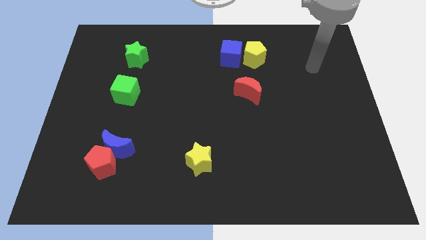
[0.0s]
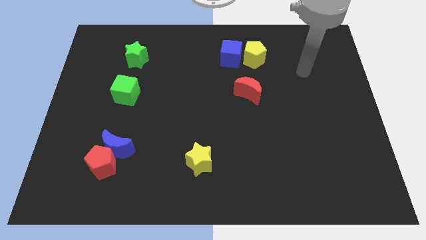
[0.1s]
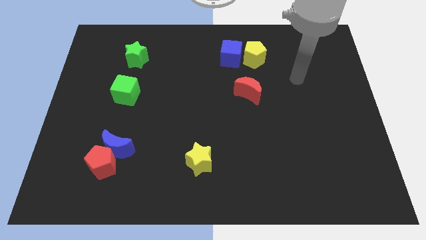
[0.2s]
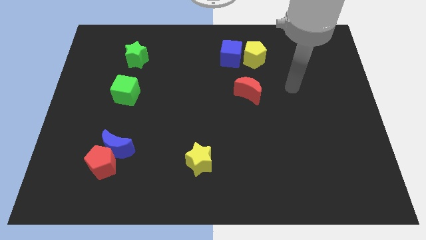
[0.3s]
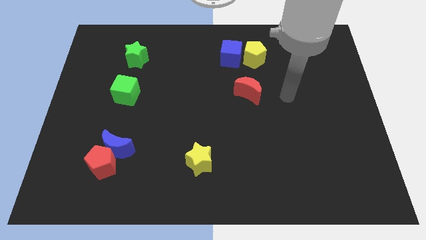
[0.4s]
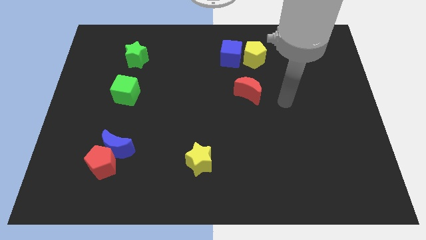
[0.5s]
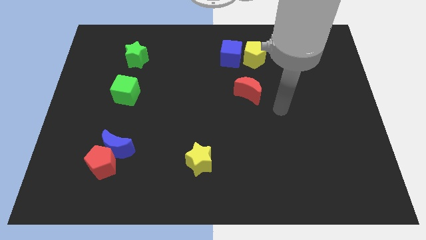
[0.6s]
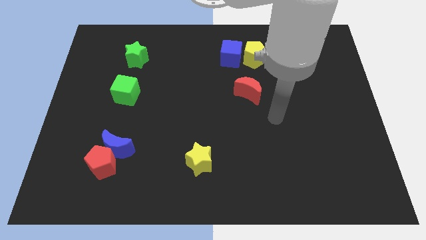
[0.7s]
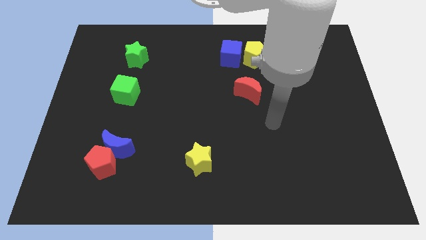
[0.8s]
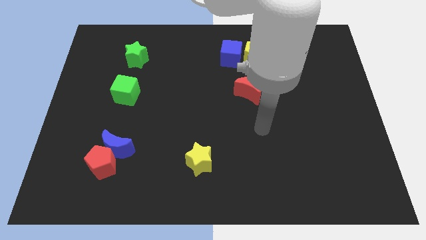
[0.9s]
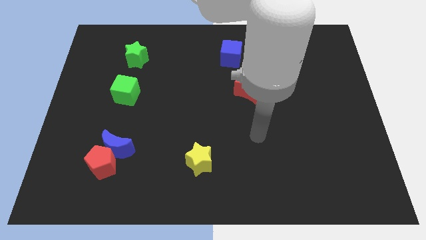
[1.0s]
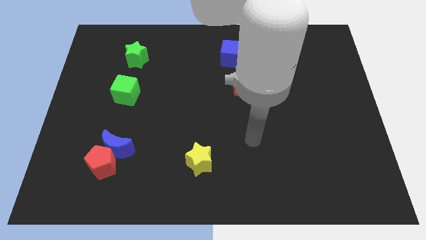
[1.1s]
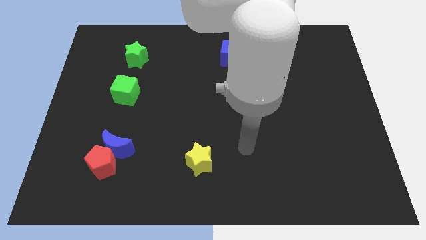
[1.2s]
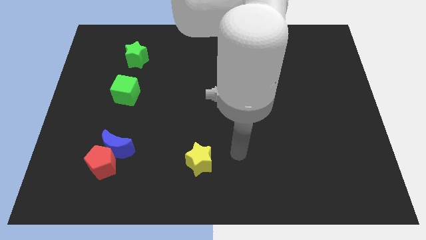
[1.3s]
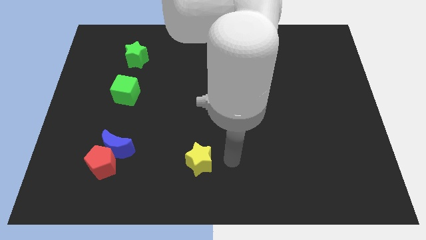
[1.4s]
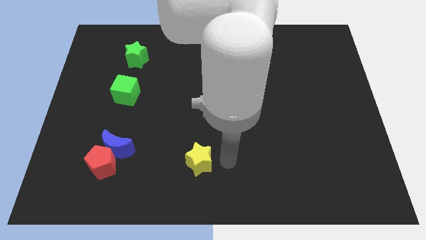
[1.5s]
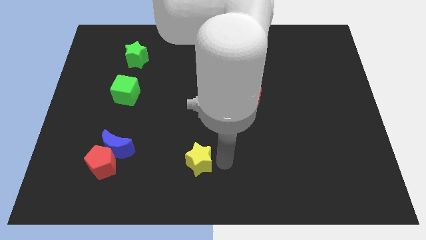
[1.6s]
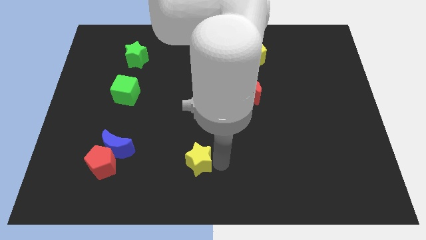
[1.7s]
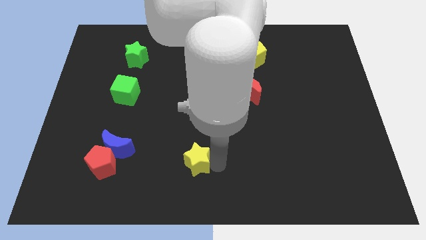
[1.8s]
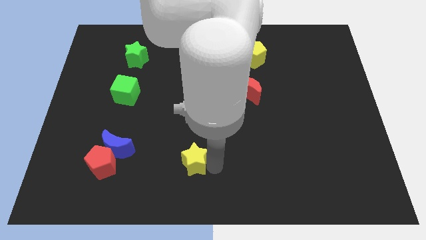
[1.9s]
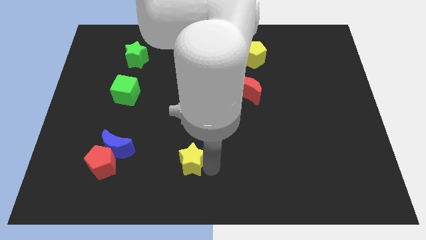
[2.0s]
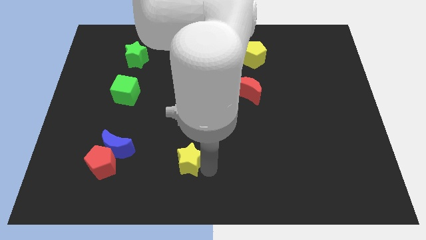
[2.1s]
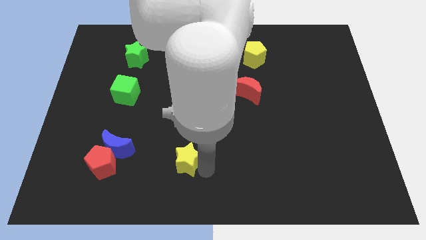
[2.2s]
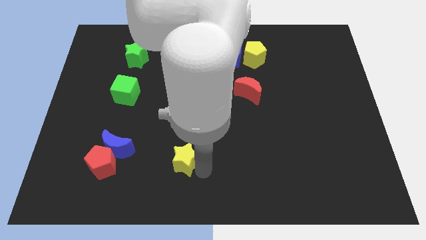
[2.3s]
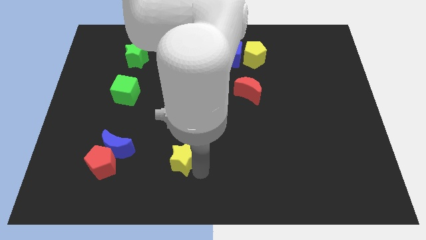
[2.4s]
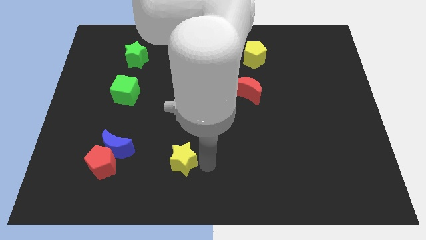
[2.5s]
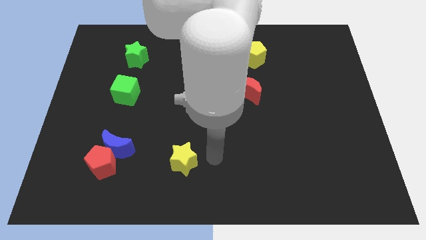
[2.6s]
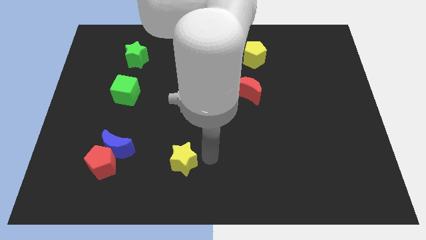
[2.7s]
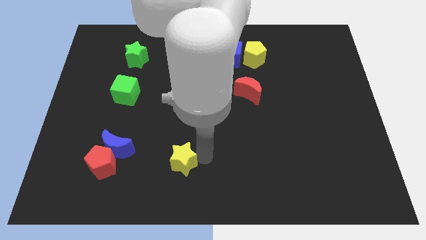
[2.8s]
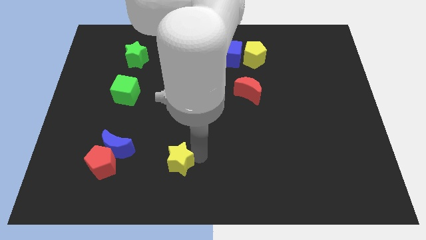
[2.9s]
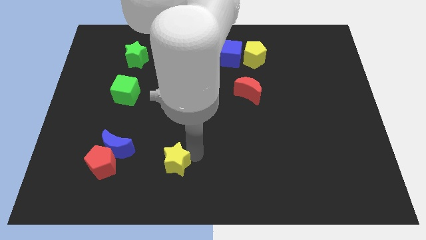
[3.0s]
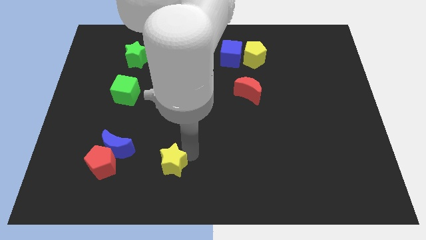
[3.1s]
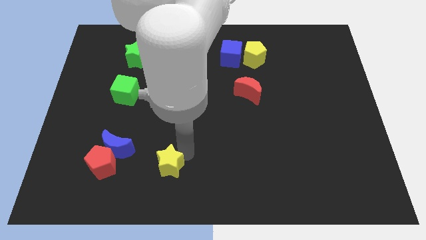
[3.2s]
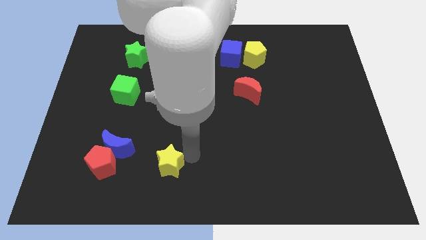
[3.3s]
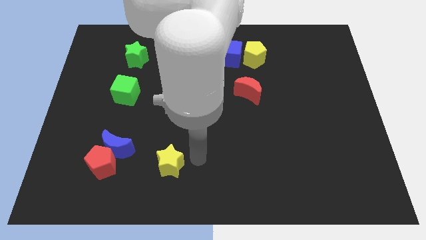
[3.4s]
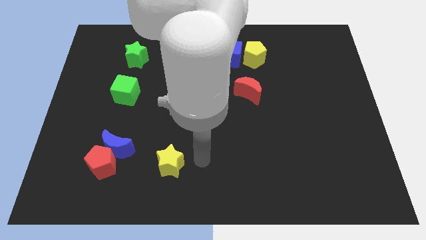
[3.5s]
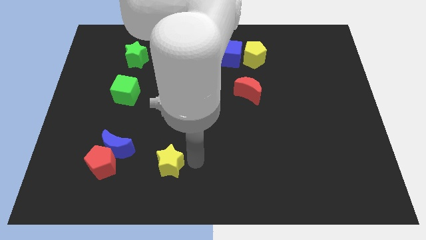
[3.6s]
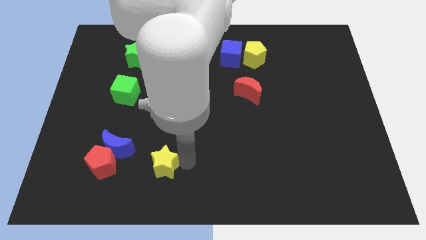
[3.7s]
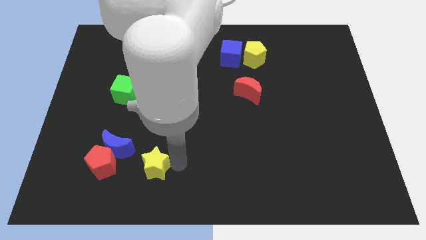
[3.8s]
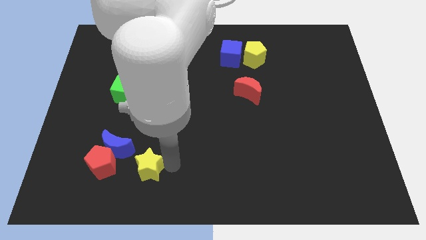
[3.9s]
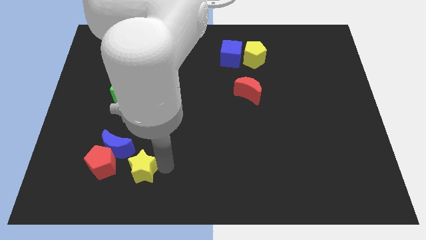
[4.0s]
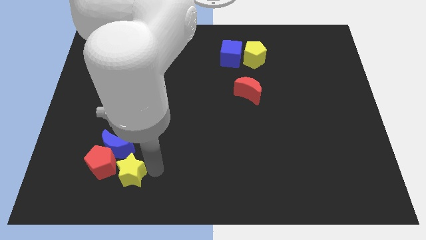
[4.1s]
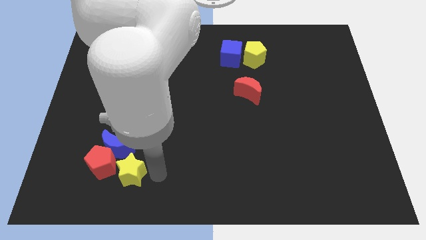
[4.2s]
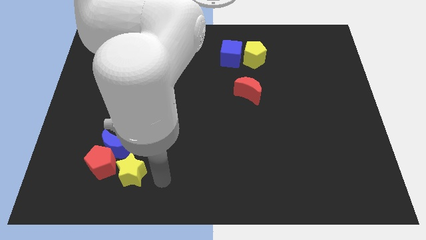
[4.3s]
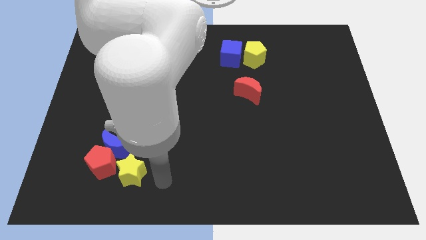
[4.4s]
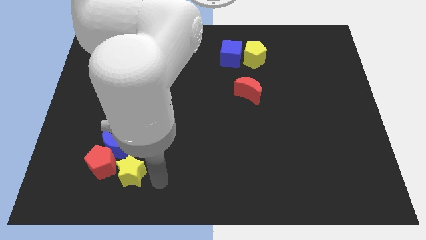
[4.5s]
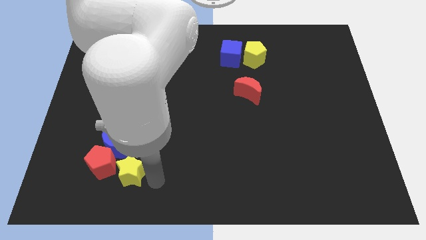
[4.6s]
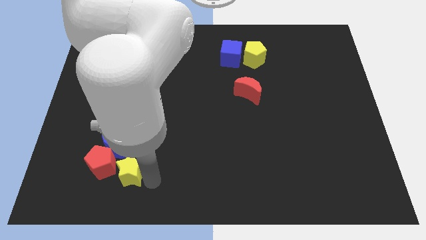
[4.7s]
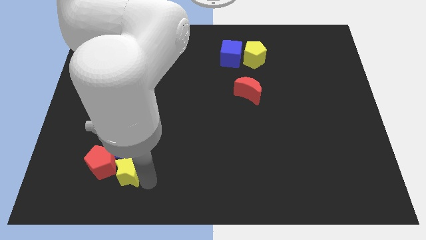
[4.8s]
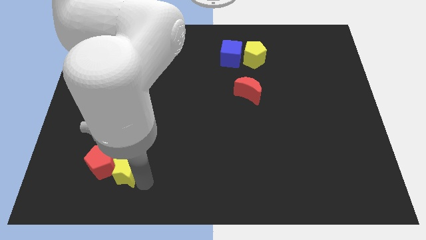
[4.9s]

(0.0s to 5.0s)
push the yellow star towards the red pentagon

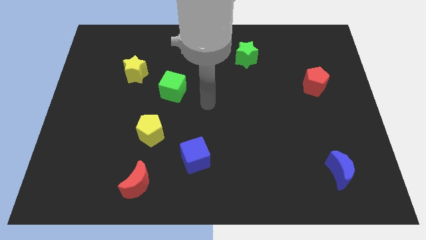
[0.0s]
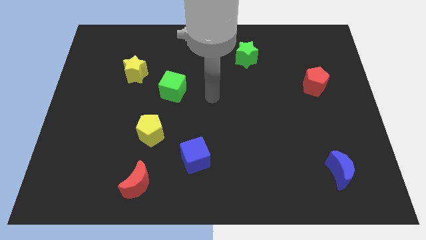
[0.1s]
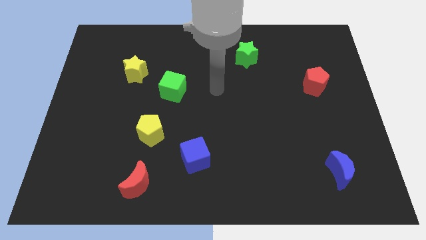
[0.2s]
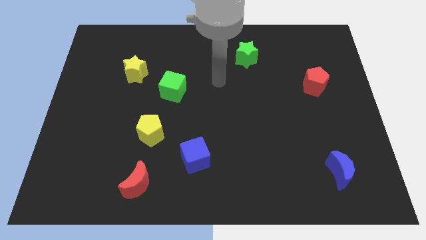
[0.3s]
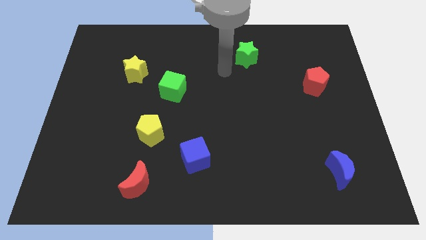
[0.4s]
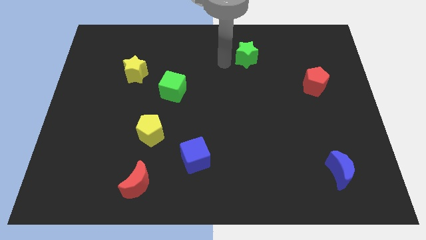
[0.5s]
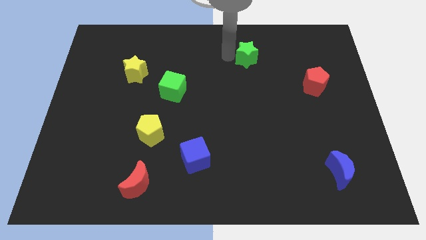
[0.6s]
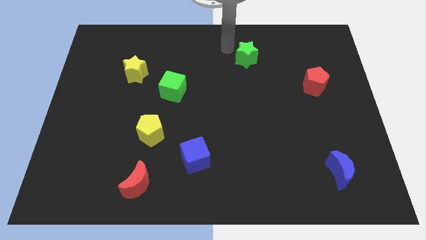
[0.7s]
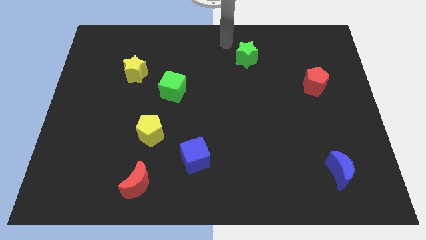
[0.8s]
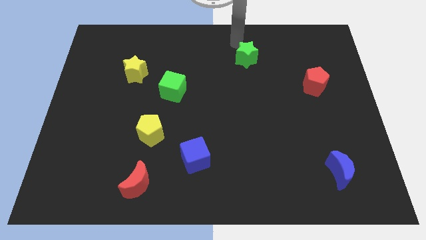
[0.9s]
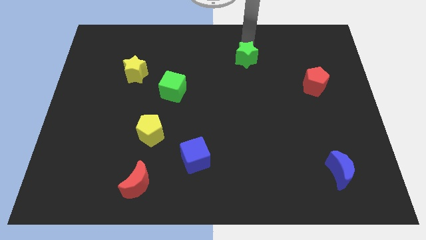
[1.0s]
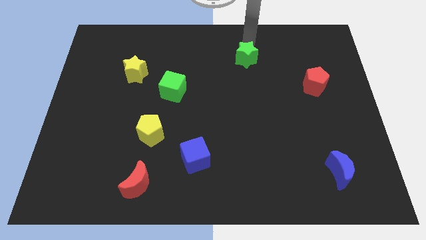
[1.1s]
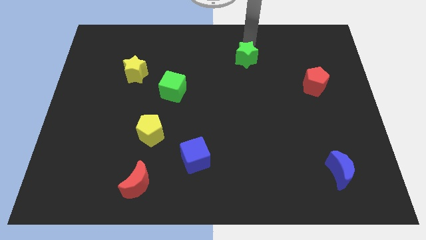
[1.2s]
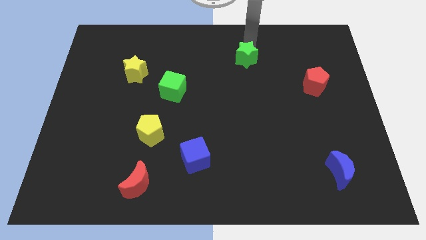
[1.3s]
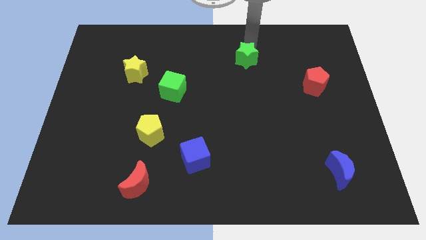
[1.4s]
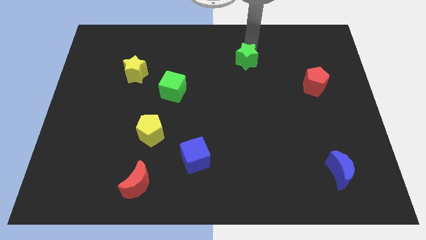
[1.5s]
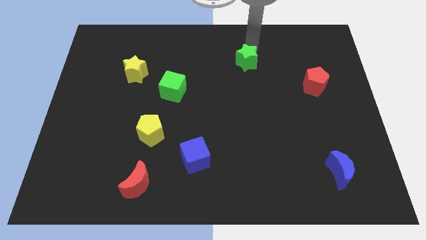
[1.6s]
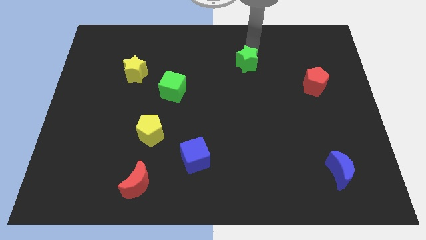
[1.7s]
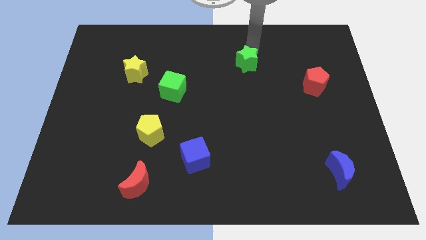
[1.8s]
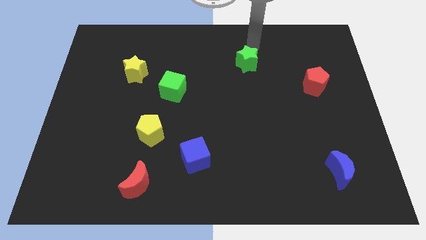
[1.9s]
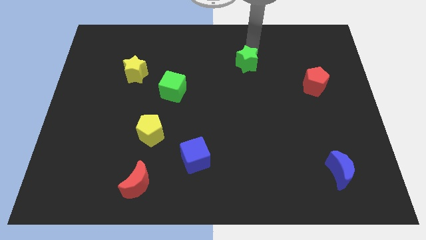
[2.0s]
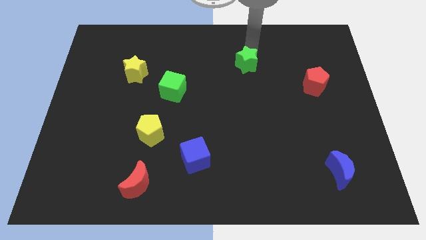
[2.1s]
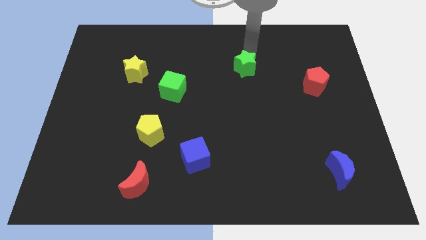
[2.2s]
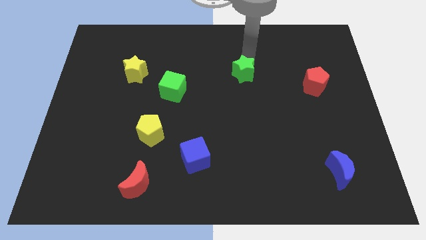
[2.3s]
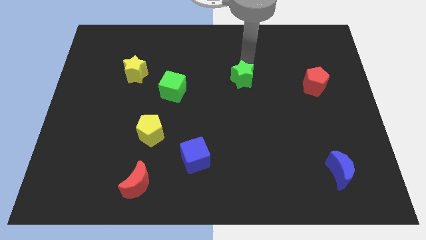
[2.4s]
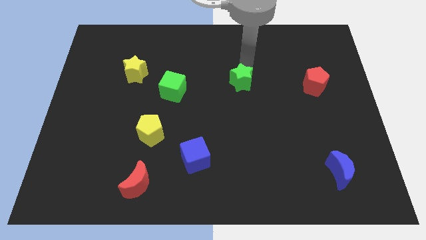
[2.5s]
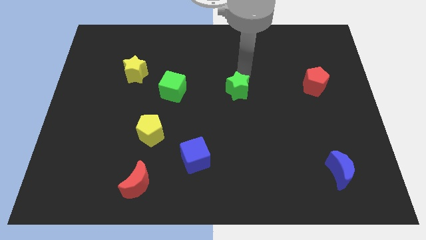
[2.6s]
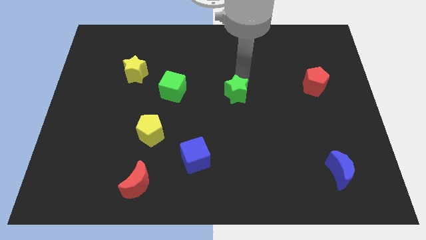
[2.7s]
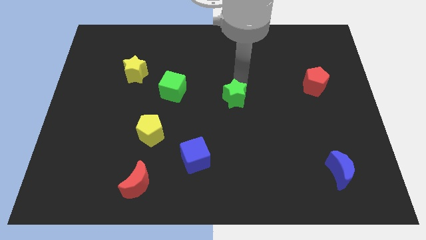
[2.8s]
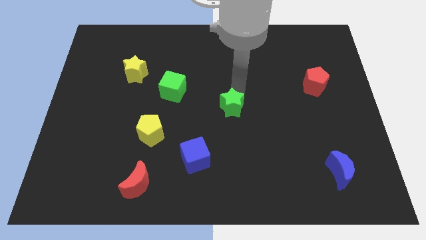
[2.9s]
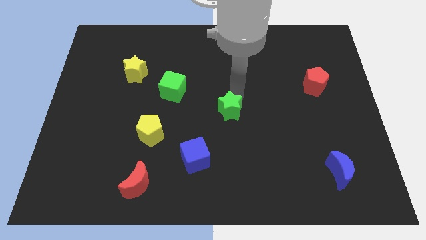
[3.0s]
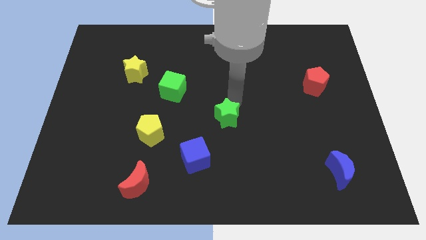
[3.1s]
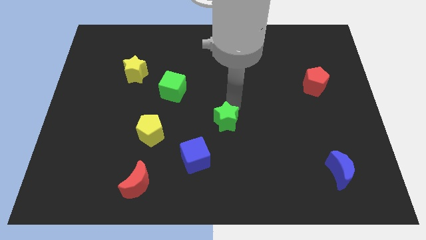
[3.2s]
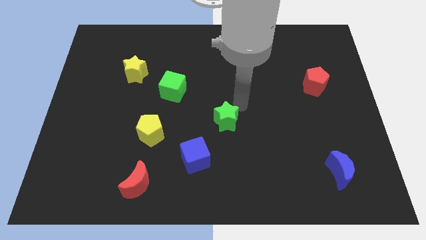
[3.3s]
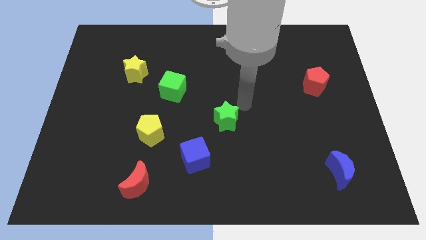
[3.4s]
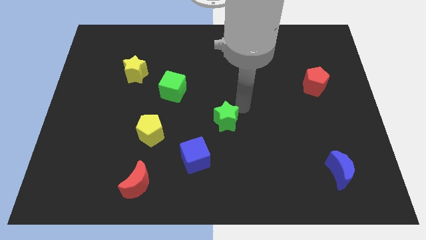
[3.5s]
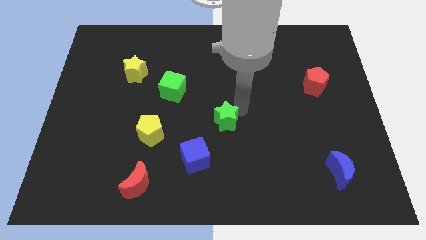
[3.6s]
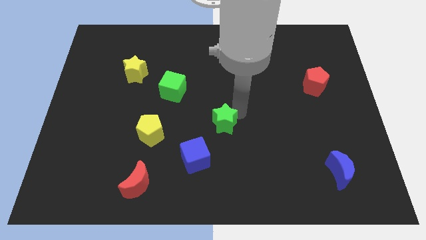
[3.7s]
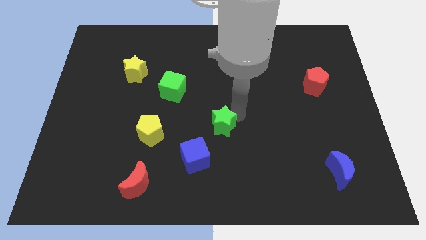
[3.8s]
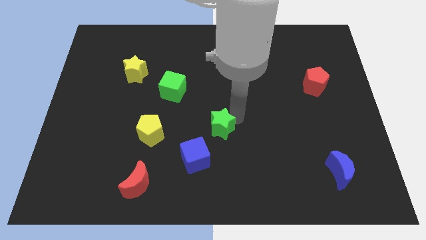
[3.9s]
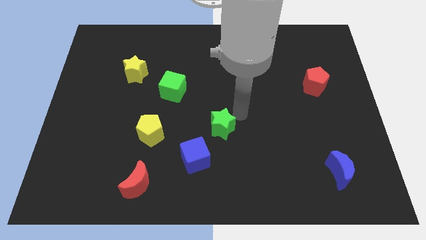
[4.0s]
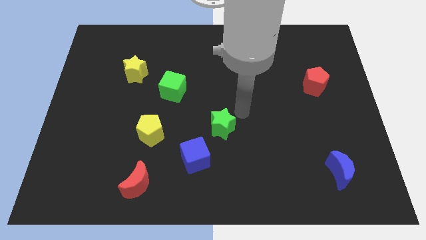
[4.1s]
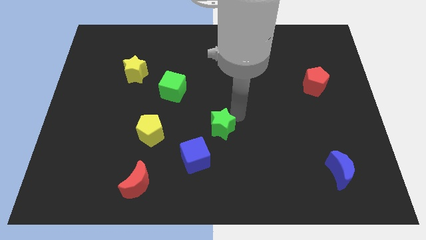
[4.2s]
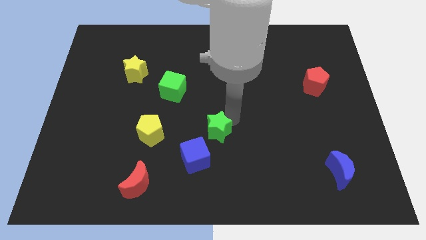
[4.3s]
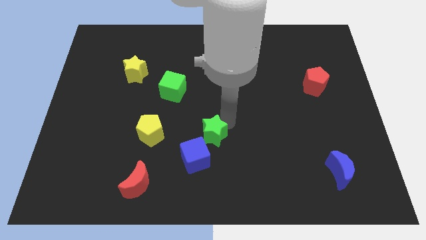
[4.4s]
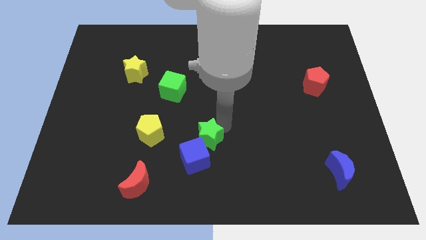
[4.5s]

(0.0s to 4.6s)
move the green star to the blue cube
